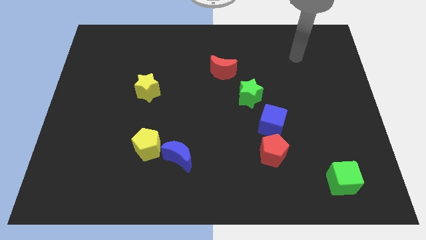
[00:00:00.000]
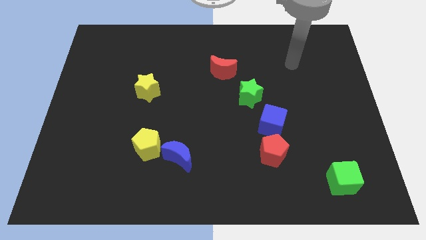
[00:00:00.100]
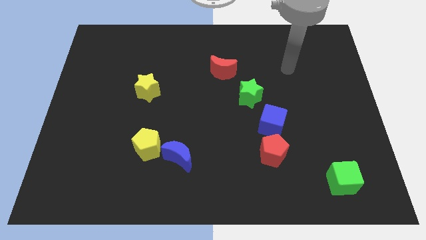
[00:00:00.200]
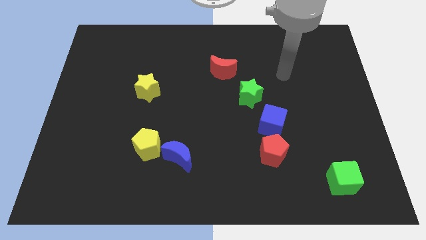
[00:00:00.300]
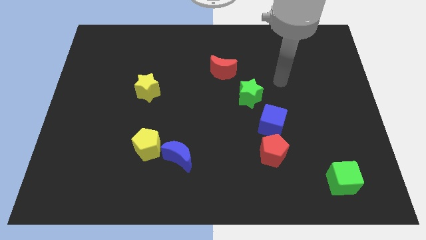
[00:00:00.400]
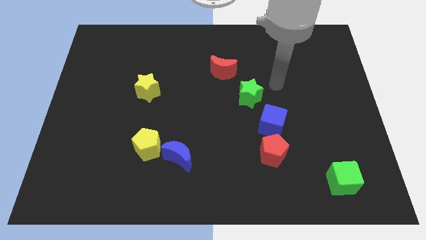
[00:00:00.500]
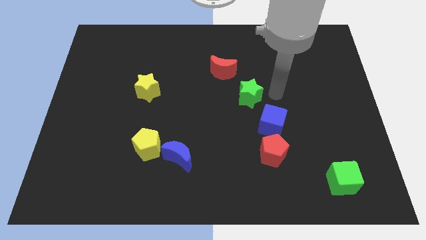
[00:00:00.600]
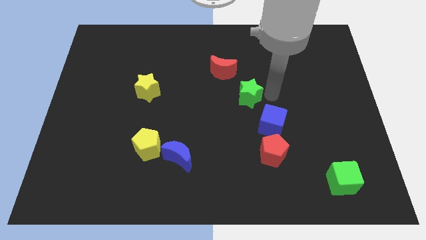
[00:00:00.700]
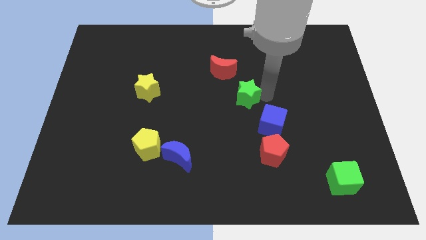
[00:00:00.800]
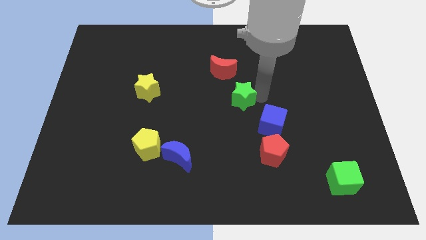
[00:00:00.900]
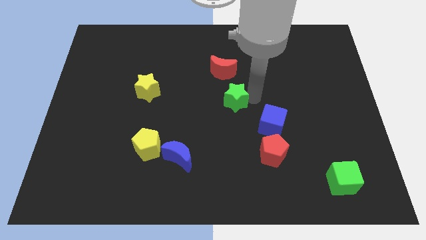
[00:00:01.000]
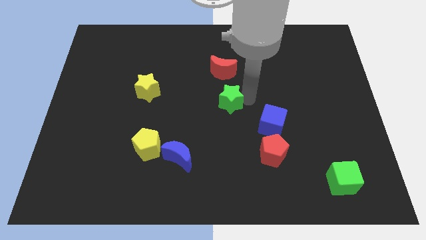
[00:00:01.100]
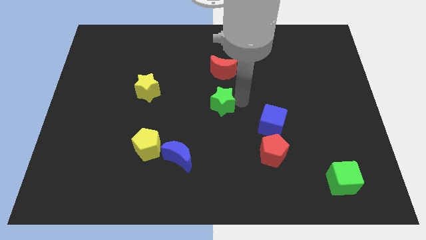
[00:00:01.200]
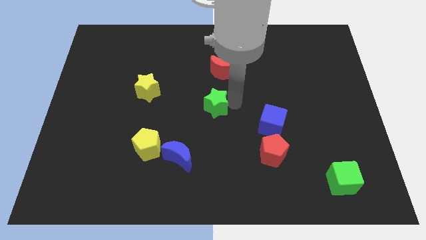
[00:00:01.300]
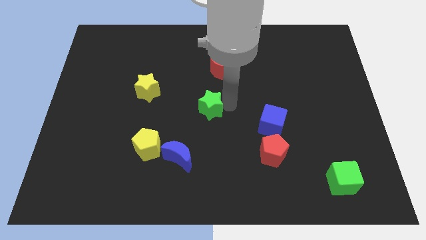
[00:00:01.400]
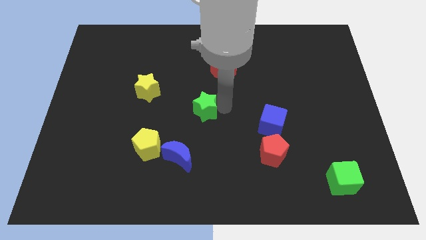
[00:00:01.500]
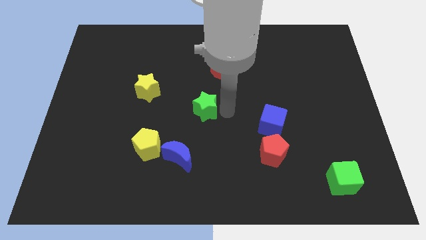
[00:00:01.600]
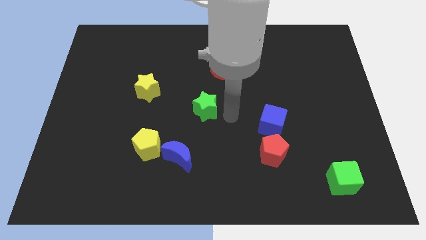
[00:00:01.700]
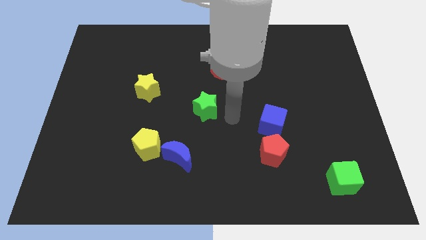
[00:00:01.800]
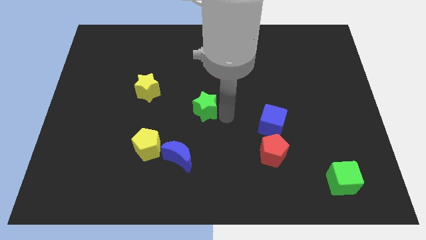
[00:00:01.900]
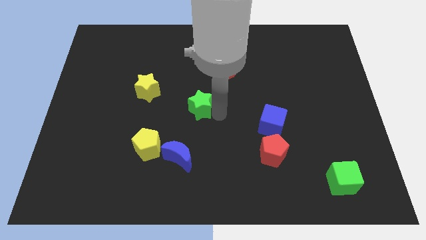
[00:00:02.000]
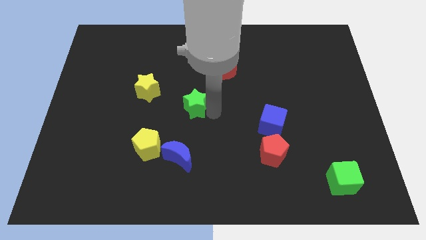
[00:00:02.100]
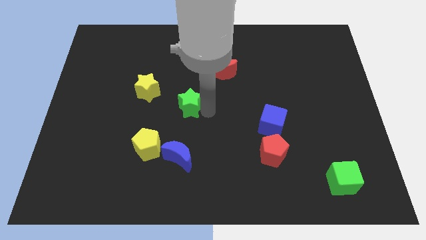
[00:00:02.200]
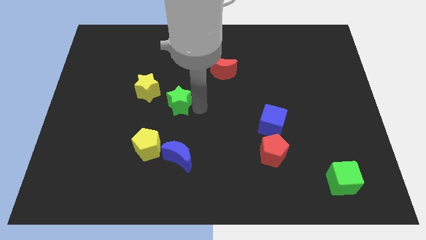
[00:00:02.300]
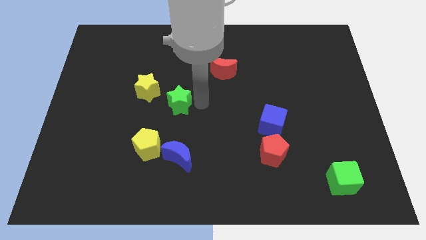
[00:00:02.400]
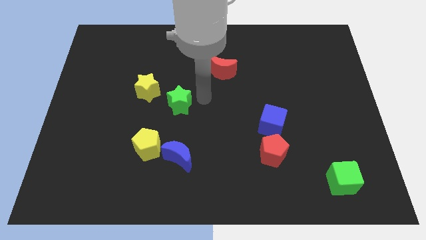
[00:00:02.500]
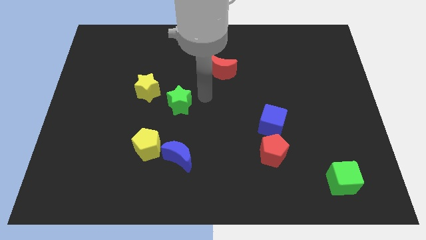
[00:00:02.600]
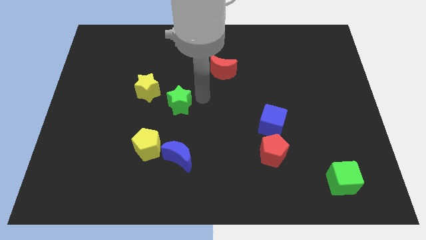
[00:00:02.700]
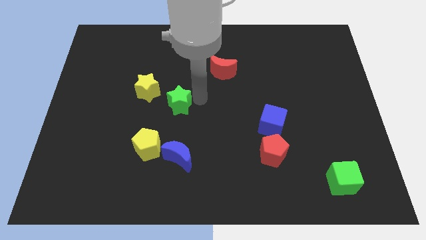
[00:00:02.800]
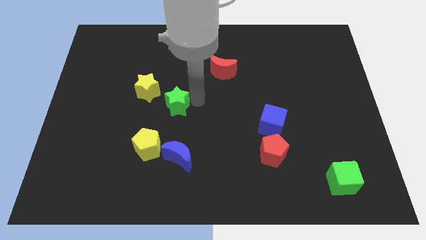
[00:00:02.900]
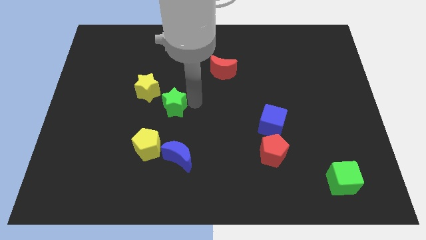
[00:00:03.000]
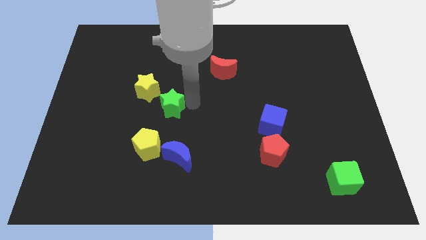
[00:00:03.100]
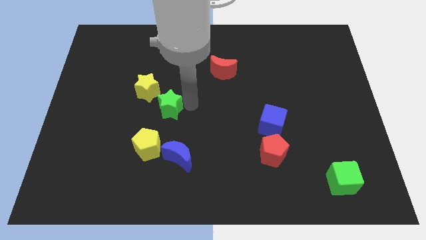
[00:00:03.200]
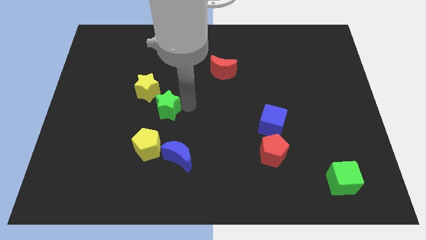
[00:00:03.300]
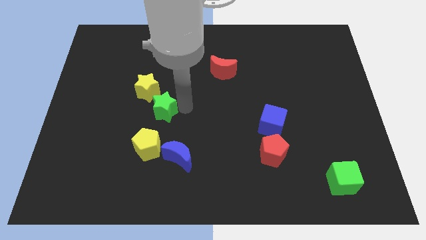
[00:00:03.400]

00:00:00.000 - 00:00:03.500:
slide the green star left

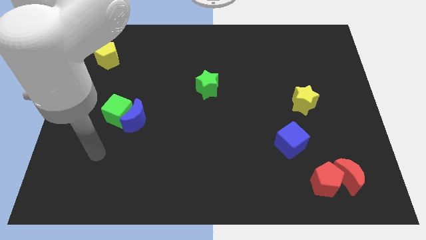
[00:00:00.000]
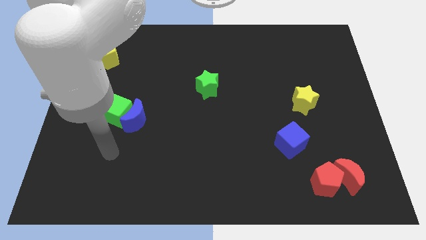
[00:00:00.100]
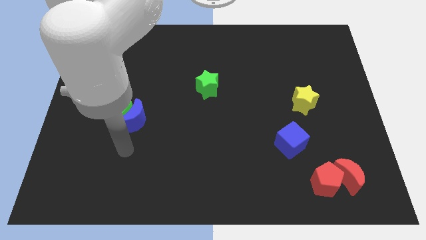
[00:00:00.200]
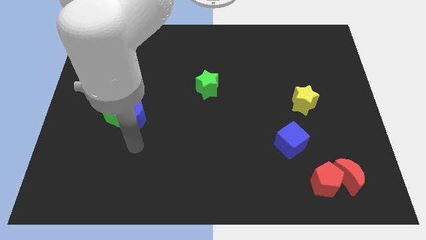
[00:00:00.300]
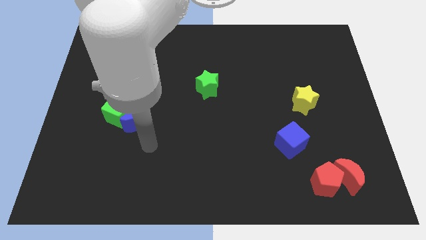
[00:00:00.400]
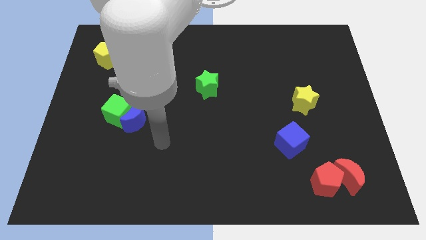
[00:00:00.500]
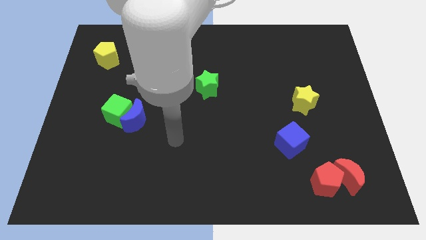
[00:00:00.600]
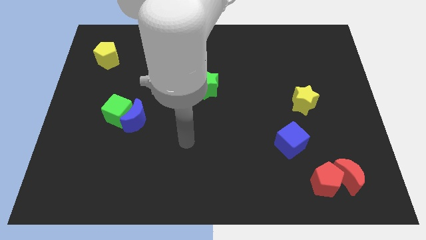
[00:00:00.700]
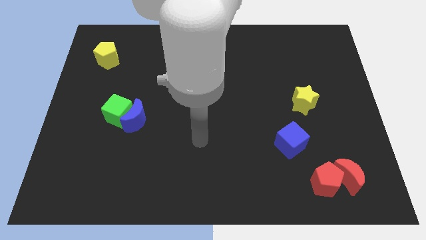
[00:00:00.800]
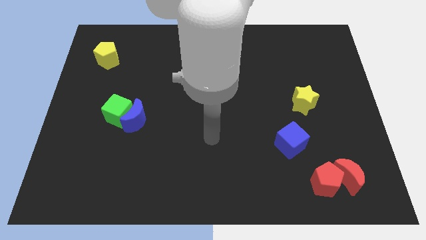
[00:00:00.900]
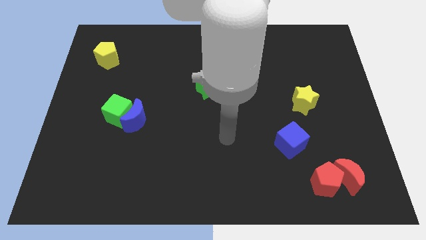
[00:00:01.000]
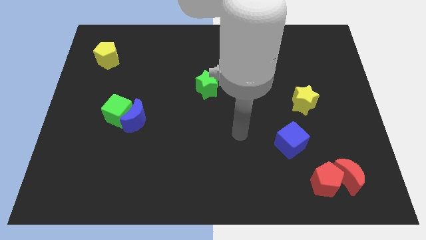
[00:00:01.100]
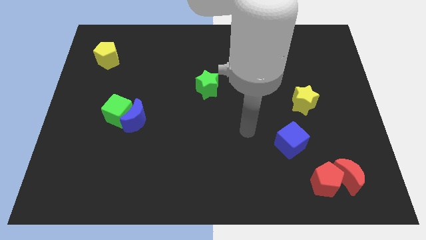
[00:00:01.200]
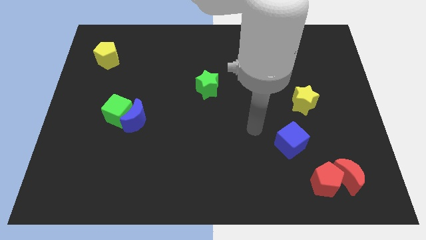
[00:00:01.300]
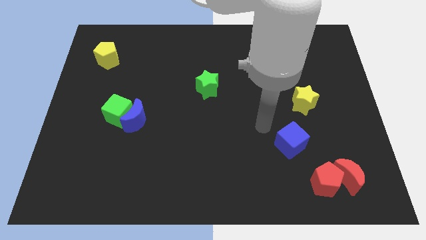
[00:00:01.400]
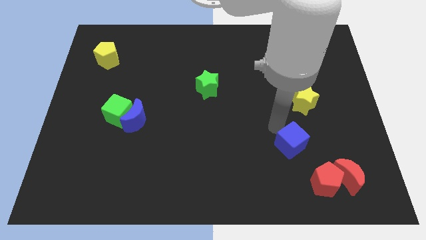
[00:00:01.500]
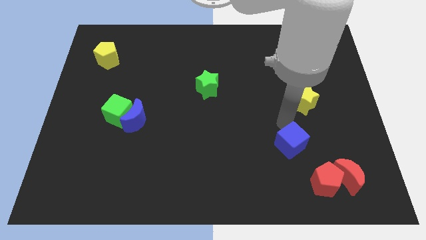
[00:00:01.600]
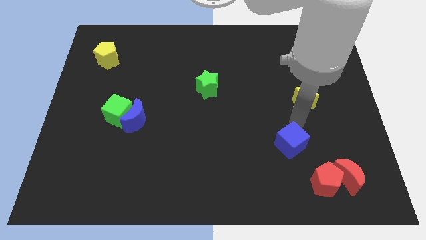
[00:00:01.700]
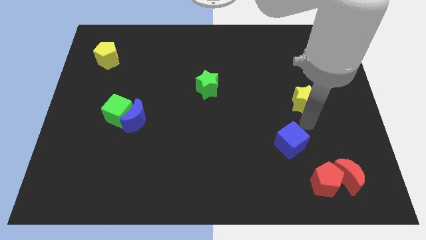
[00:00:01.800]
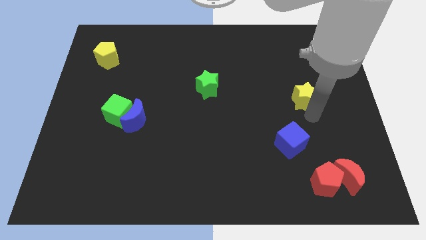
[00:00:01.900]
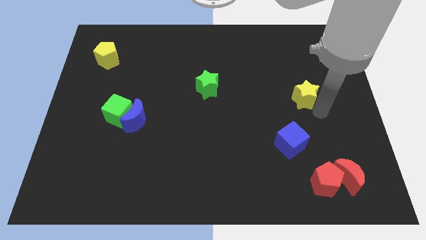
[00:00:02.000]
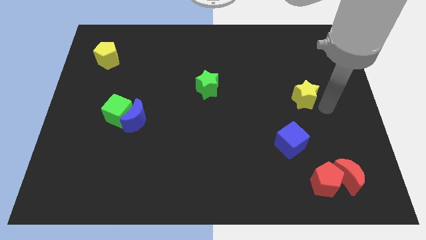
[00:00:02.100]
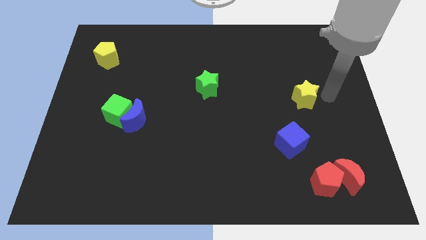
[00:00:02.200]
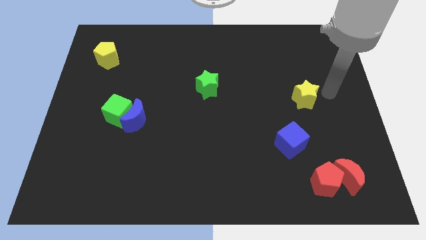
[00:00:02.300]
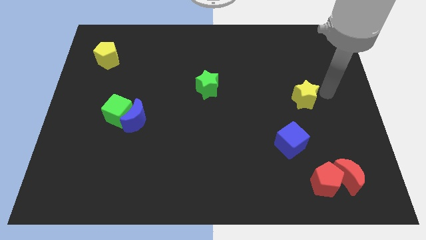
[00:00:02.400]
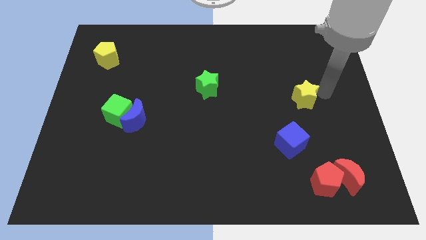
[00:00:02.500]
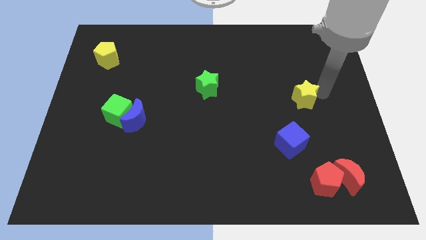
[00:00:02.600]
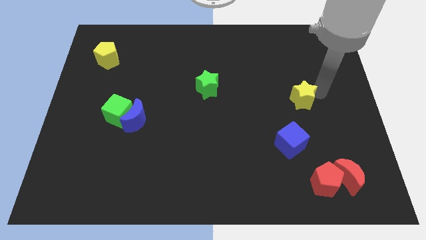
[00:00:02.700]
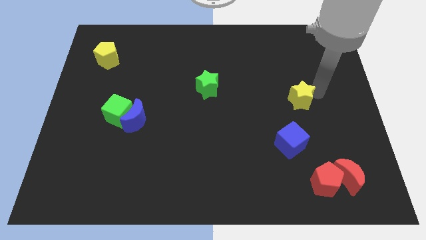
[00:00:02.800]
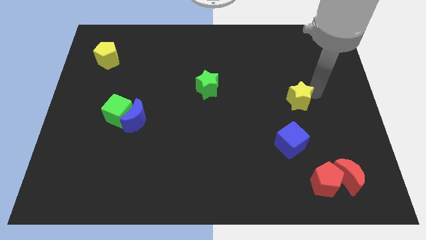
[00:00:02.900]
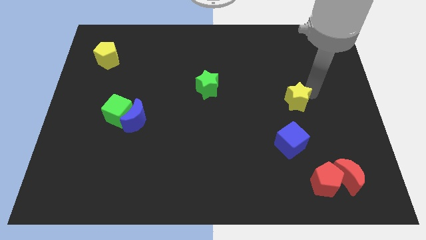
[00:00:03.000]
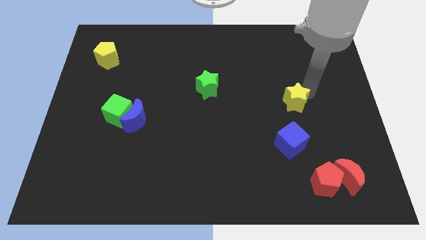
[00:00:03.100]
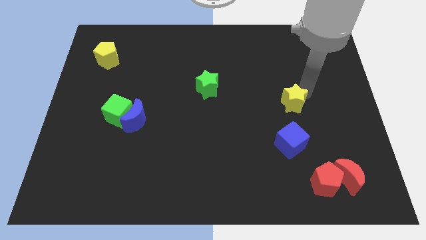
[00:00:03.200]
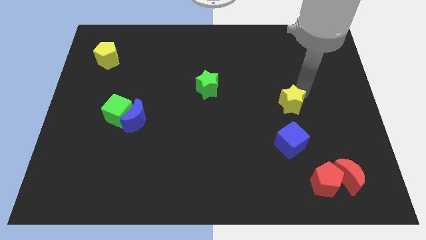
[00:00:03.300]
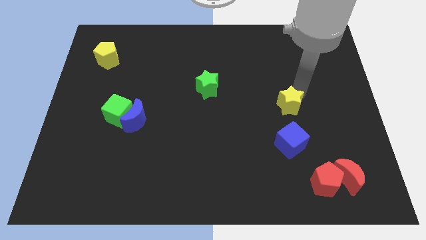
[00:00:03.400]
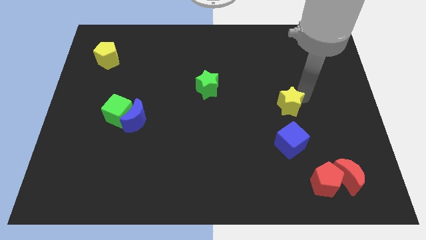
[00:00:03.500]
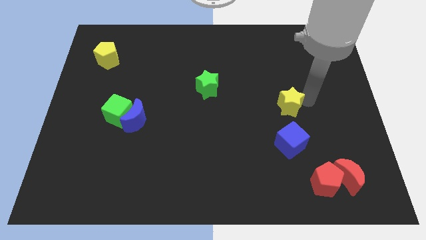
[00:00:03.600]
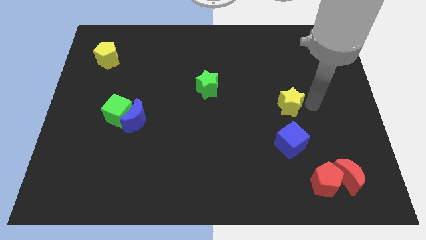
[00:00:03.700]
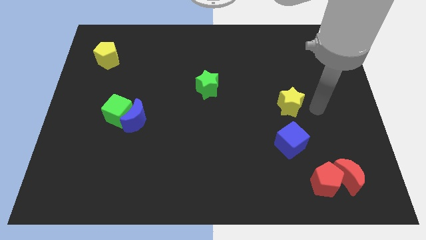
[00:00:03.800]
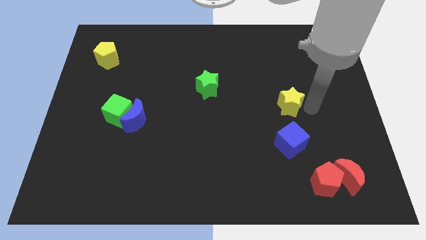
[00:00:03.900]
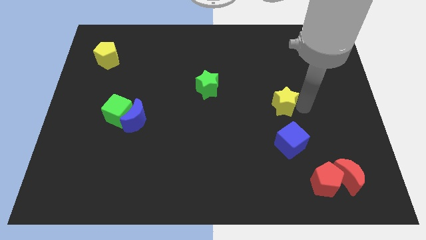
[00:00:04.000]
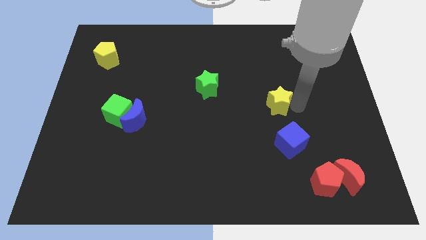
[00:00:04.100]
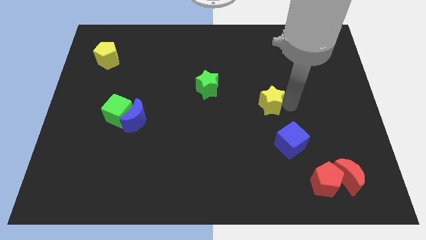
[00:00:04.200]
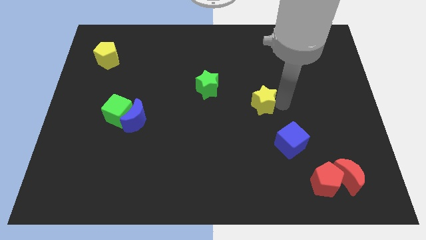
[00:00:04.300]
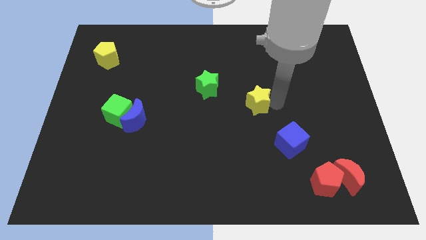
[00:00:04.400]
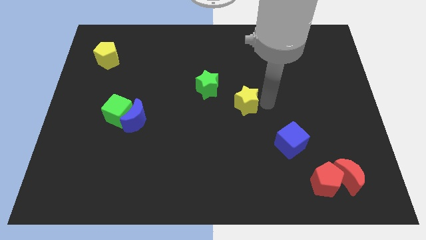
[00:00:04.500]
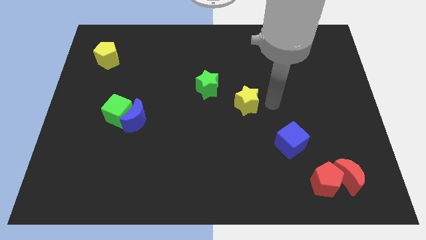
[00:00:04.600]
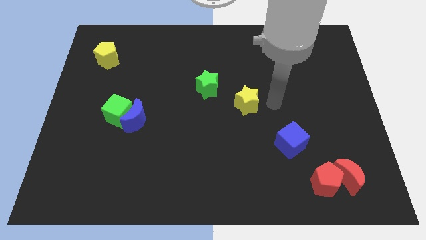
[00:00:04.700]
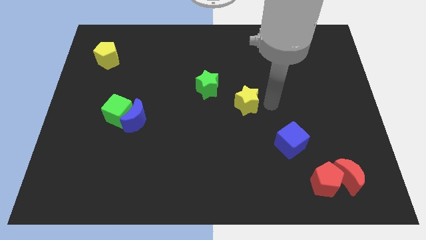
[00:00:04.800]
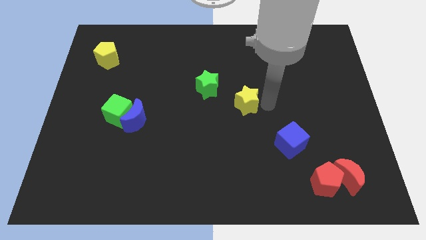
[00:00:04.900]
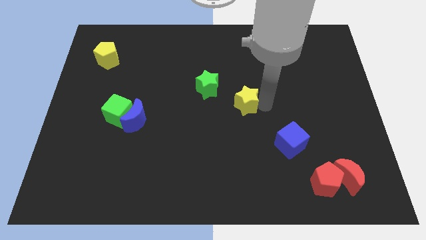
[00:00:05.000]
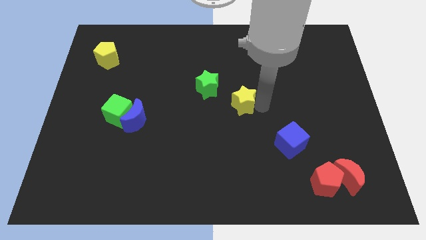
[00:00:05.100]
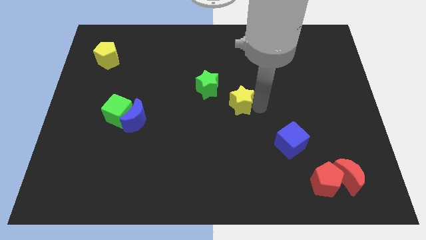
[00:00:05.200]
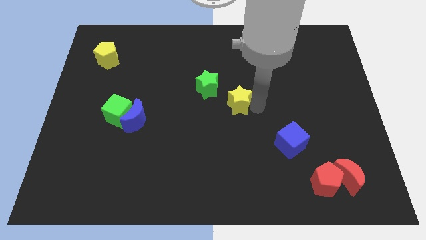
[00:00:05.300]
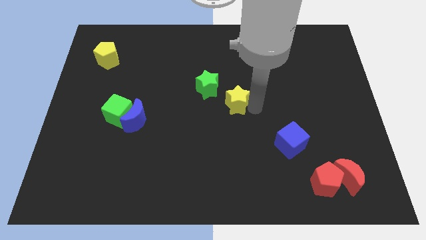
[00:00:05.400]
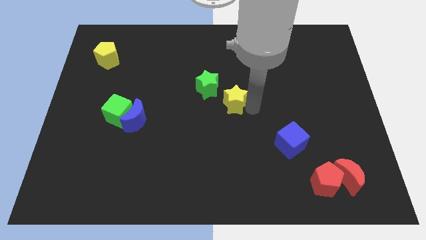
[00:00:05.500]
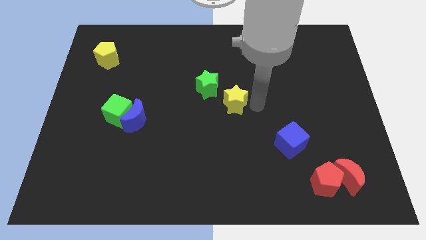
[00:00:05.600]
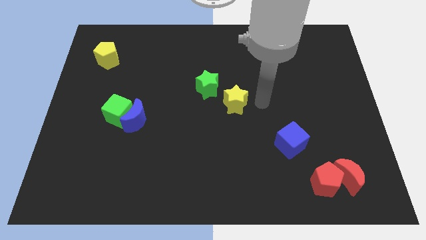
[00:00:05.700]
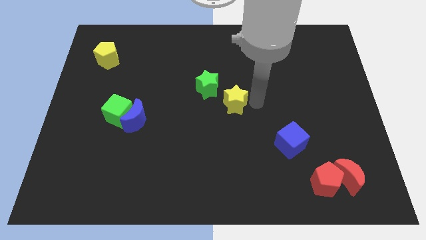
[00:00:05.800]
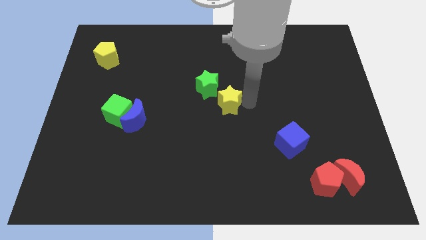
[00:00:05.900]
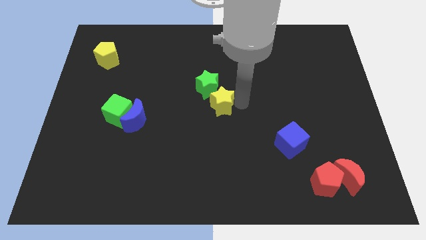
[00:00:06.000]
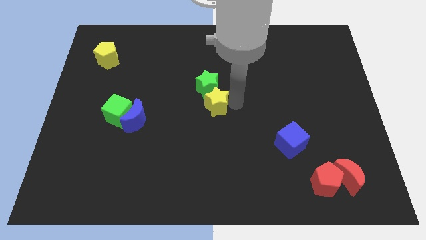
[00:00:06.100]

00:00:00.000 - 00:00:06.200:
move the yellow star left
